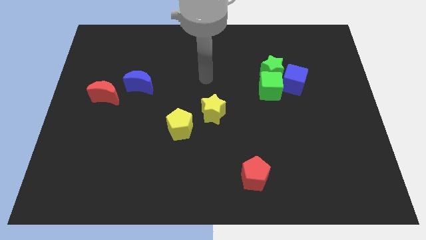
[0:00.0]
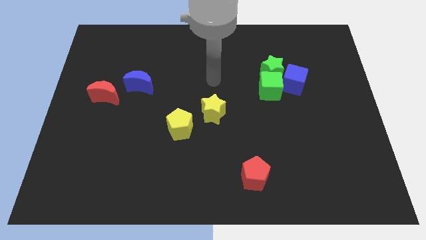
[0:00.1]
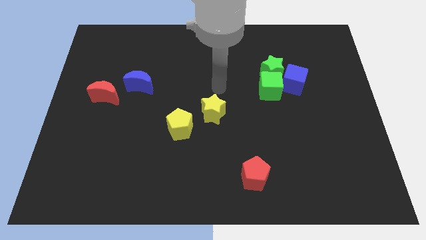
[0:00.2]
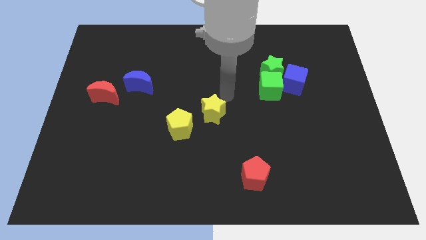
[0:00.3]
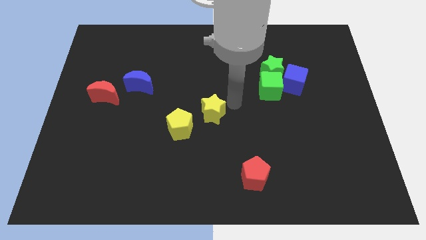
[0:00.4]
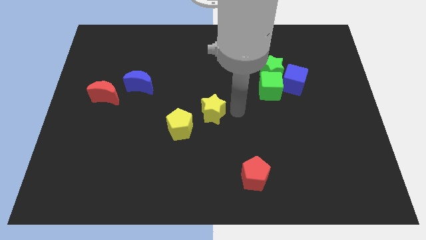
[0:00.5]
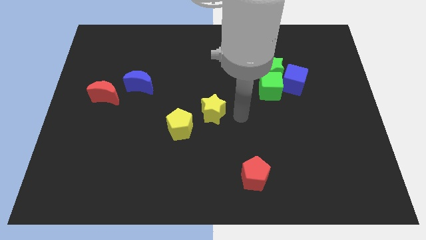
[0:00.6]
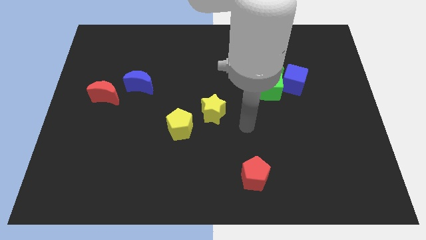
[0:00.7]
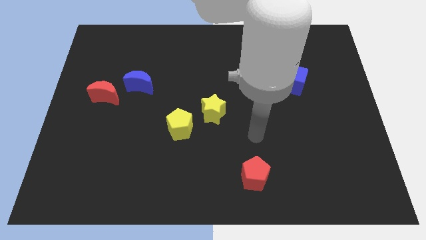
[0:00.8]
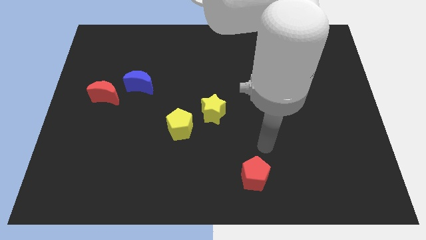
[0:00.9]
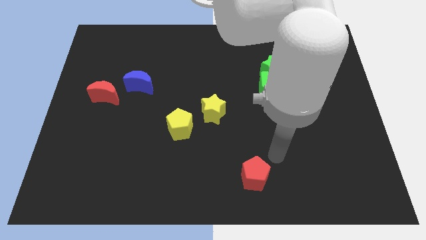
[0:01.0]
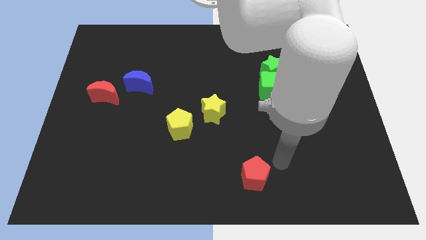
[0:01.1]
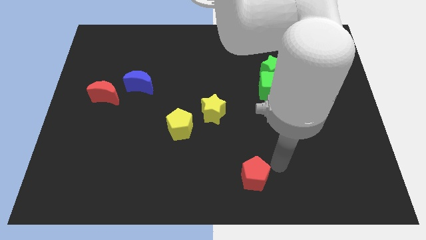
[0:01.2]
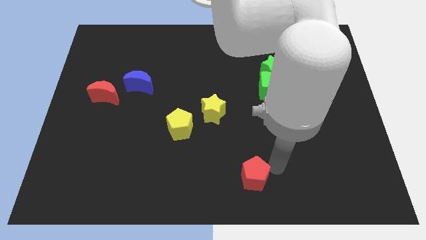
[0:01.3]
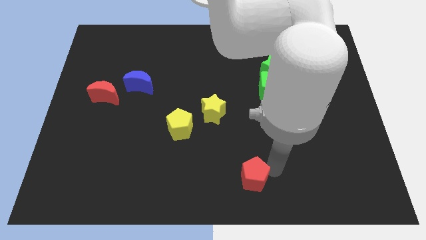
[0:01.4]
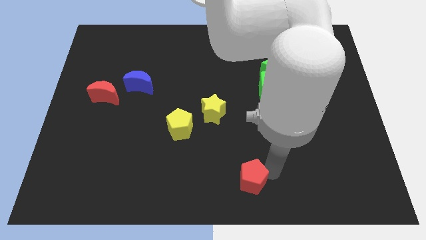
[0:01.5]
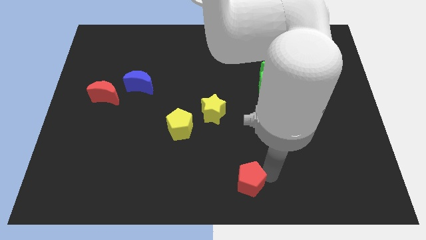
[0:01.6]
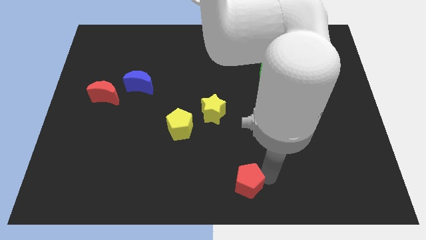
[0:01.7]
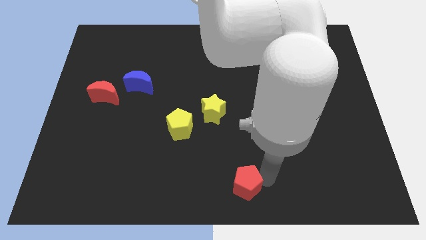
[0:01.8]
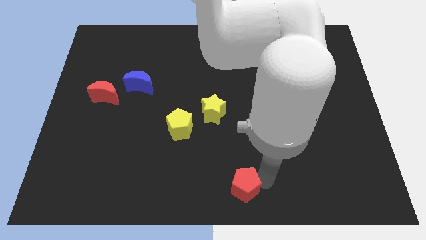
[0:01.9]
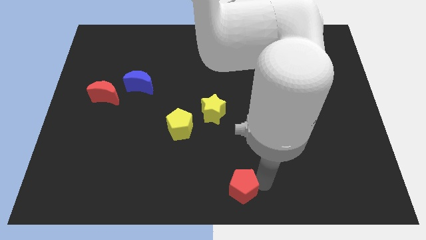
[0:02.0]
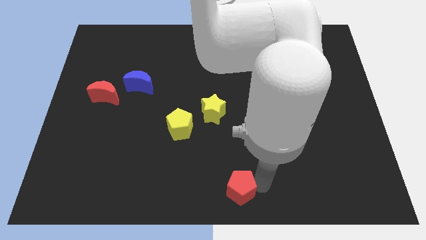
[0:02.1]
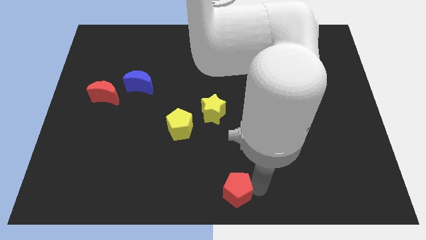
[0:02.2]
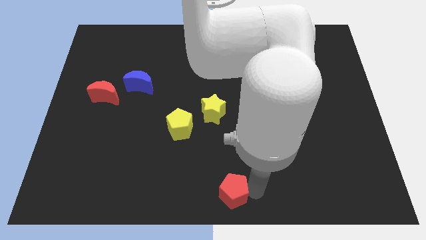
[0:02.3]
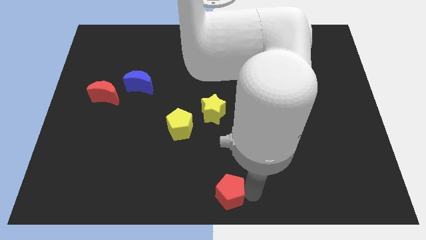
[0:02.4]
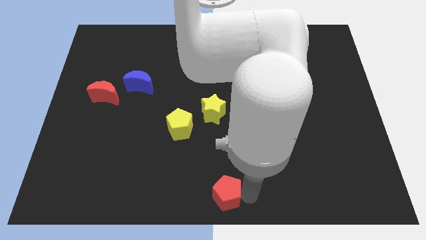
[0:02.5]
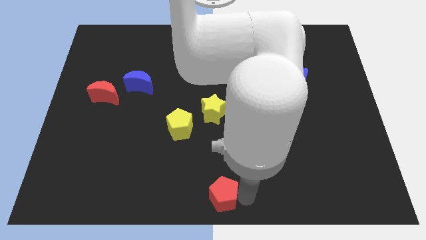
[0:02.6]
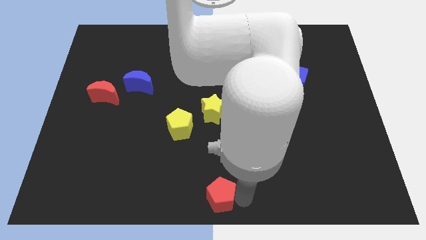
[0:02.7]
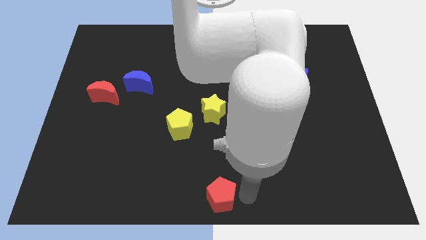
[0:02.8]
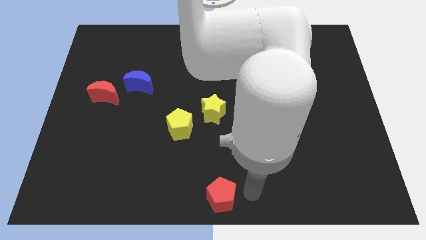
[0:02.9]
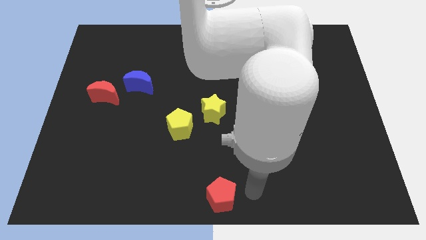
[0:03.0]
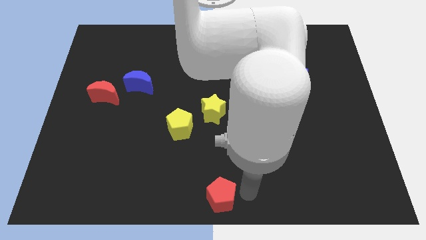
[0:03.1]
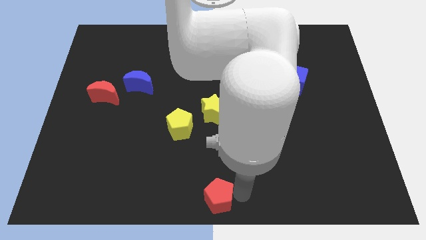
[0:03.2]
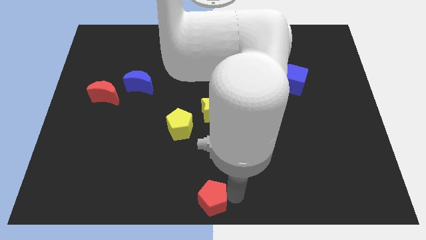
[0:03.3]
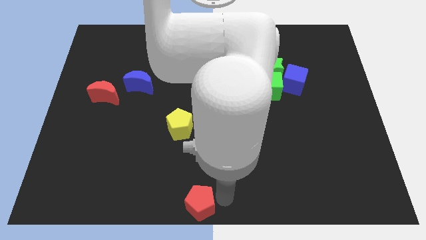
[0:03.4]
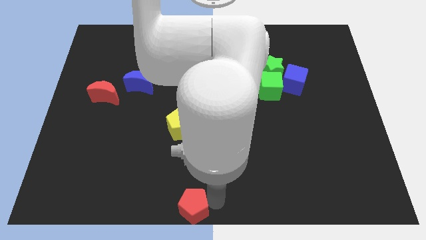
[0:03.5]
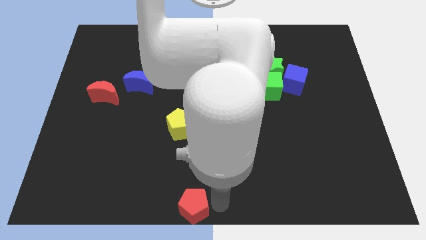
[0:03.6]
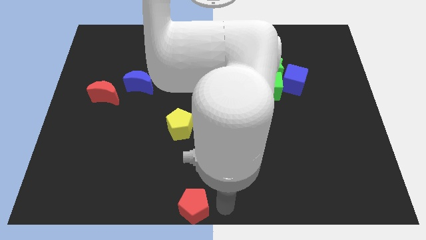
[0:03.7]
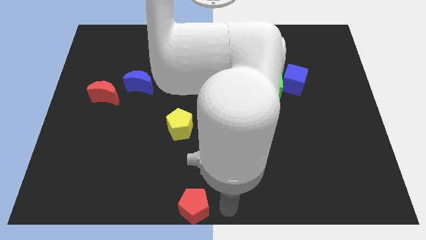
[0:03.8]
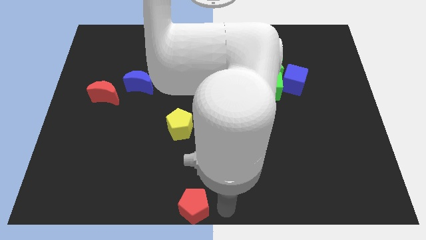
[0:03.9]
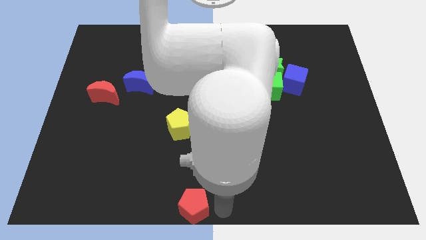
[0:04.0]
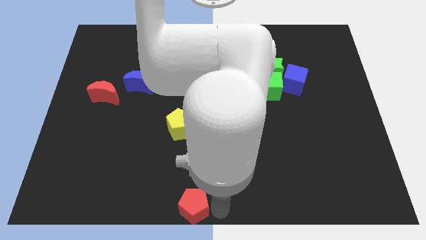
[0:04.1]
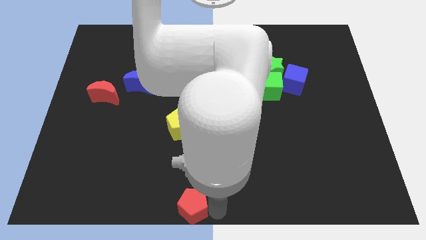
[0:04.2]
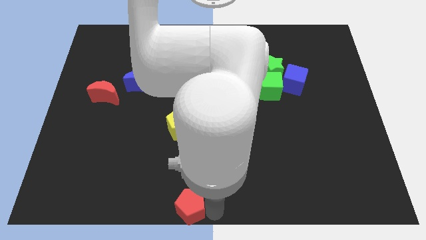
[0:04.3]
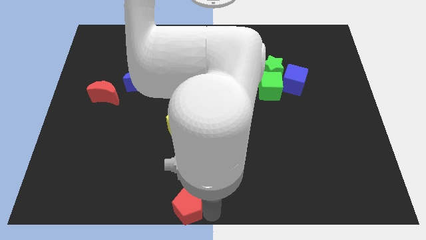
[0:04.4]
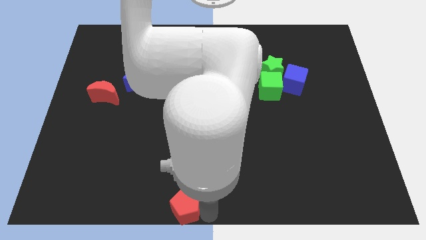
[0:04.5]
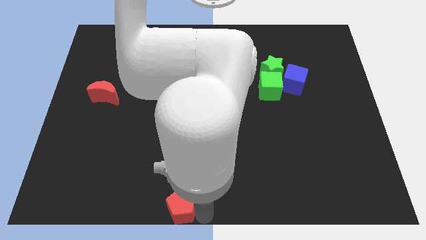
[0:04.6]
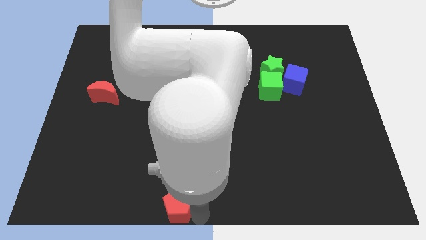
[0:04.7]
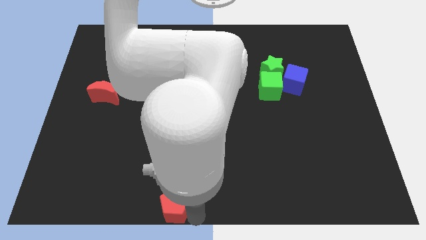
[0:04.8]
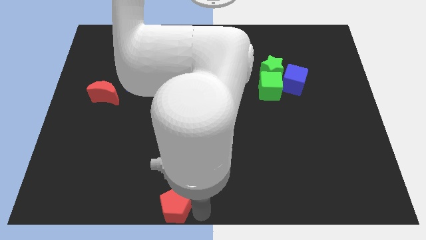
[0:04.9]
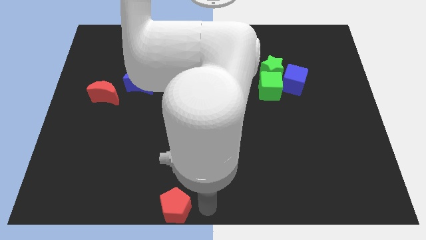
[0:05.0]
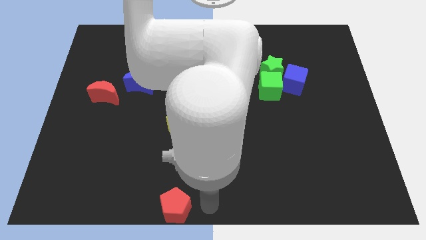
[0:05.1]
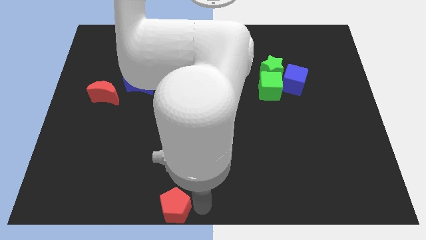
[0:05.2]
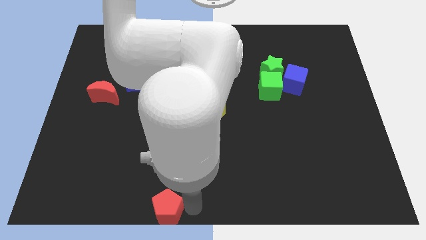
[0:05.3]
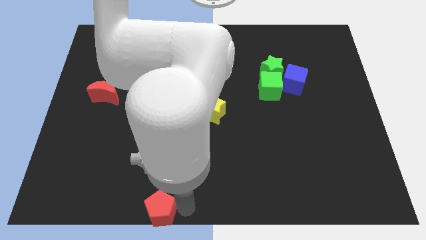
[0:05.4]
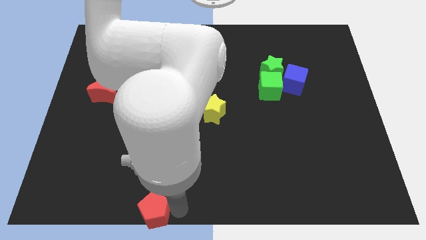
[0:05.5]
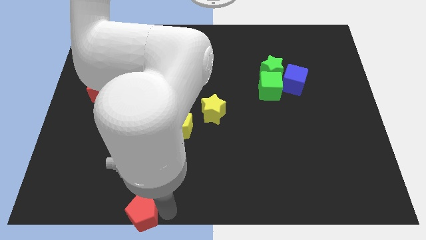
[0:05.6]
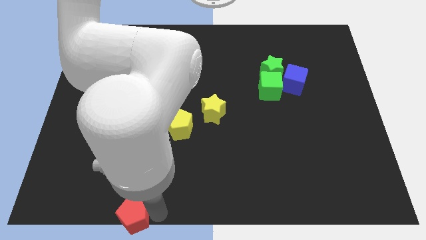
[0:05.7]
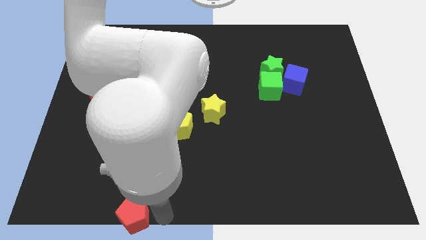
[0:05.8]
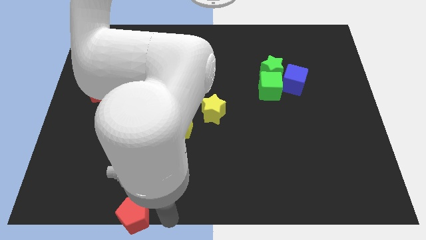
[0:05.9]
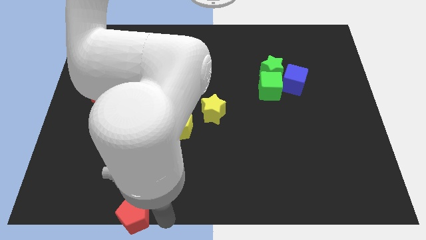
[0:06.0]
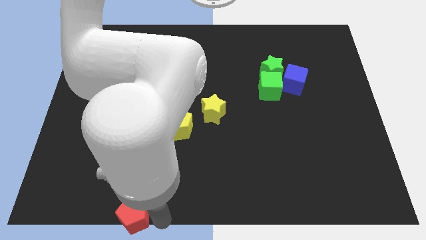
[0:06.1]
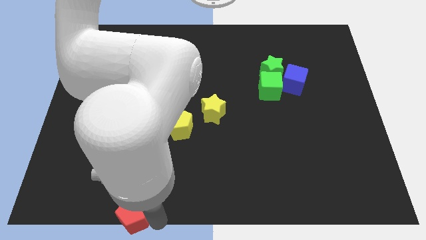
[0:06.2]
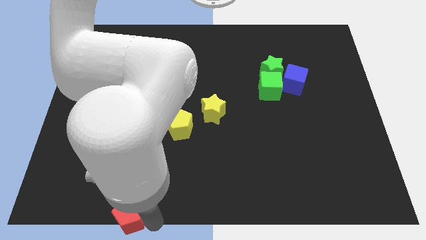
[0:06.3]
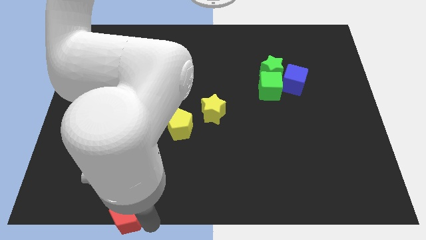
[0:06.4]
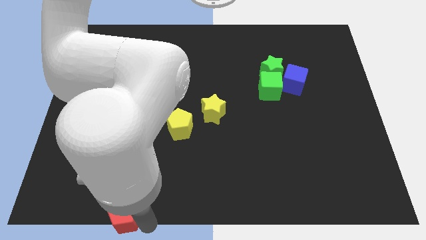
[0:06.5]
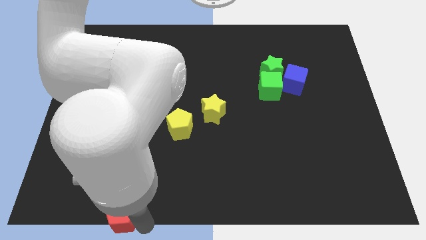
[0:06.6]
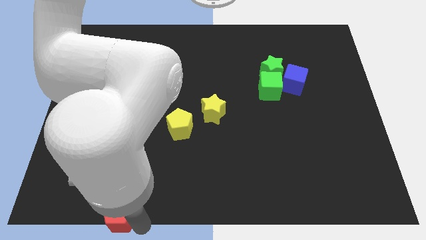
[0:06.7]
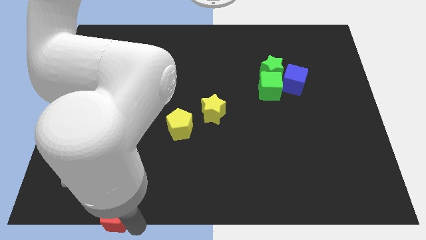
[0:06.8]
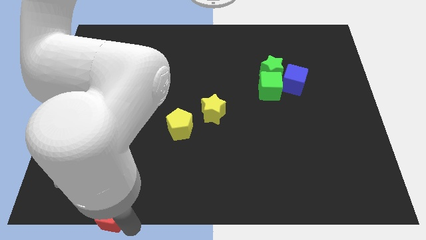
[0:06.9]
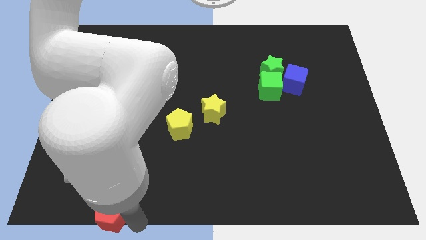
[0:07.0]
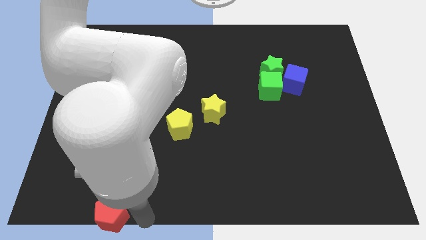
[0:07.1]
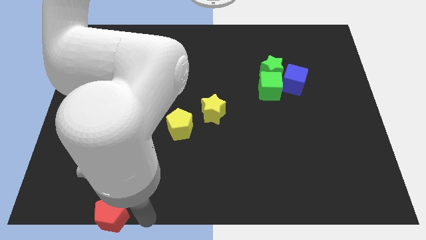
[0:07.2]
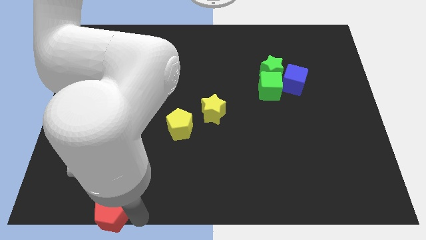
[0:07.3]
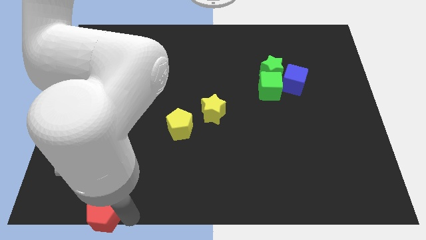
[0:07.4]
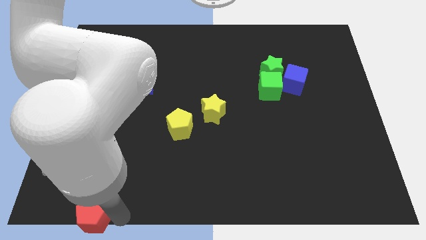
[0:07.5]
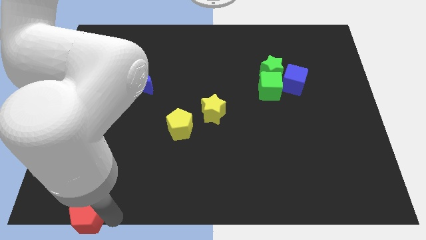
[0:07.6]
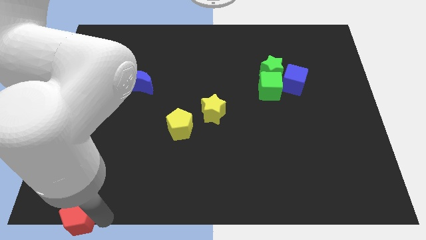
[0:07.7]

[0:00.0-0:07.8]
move the red pentagon to the lower left corner
